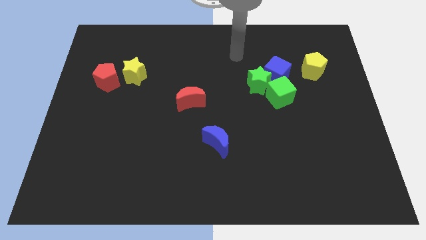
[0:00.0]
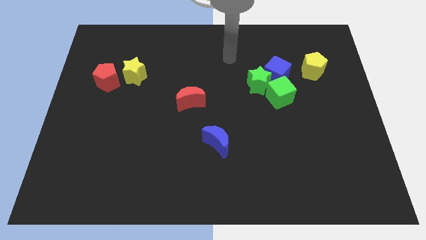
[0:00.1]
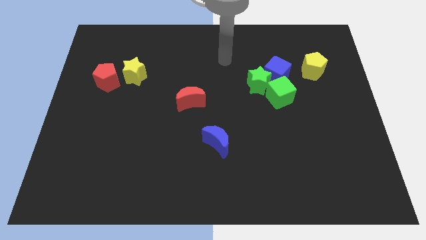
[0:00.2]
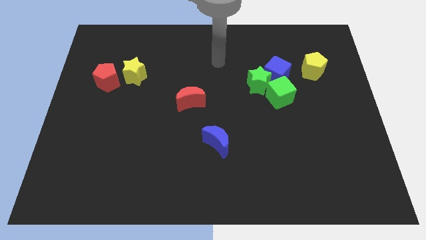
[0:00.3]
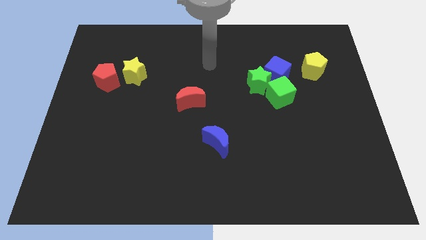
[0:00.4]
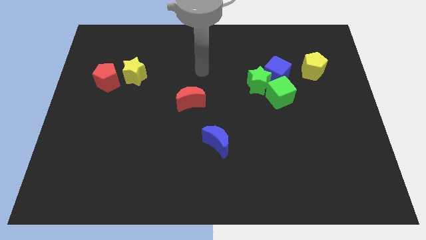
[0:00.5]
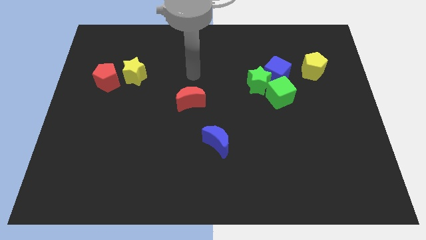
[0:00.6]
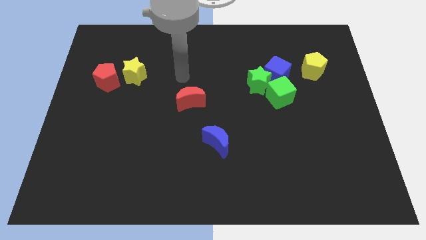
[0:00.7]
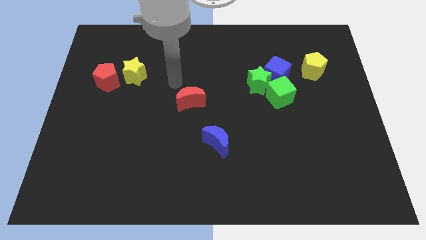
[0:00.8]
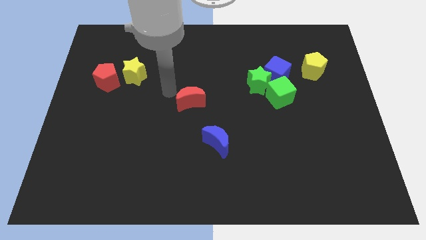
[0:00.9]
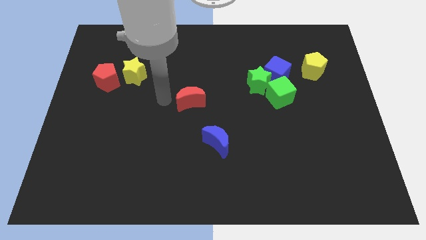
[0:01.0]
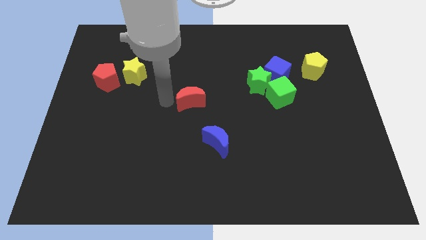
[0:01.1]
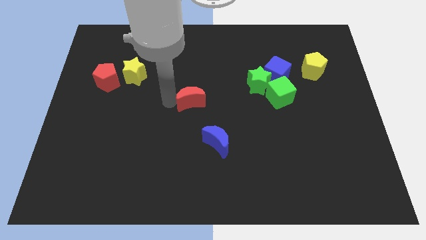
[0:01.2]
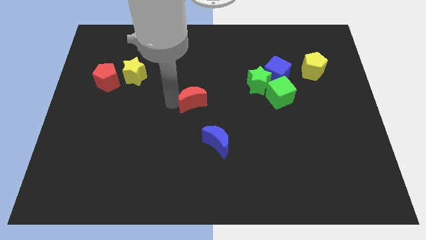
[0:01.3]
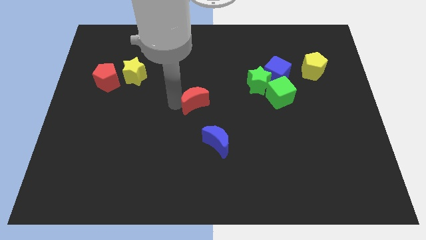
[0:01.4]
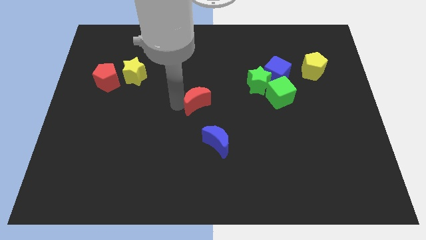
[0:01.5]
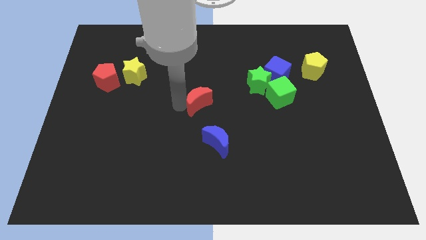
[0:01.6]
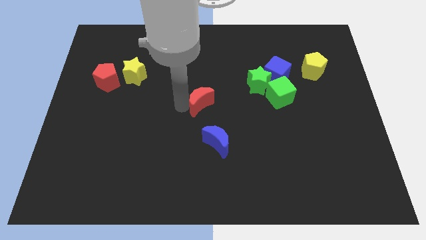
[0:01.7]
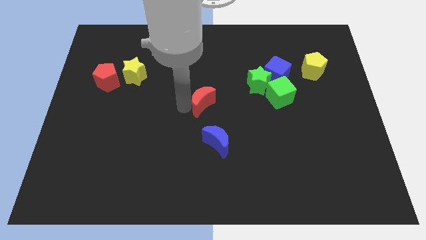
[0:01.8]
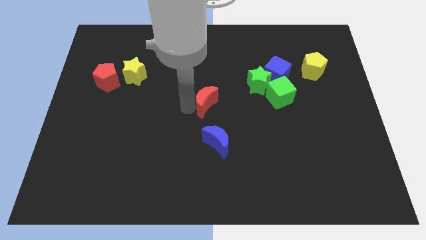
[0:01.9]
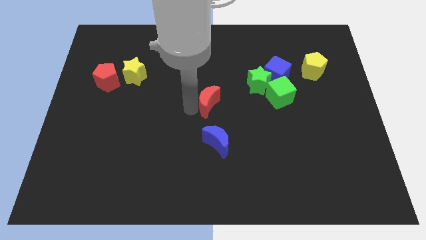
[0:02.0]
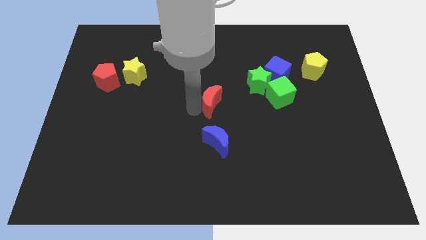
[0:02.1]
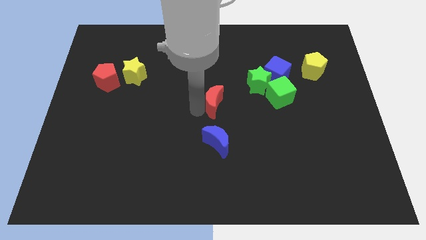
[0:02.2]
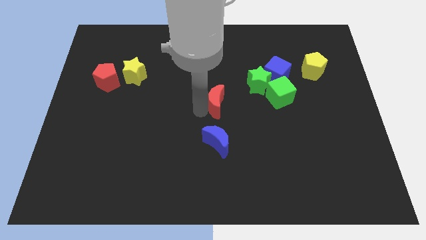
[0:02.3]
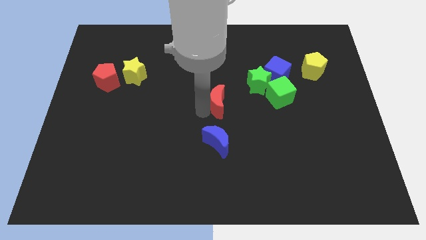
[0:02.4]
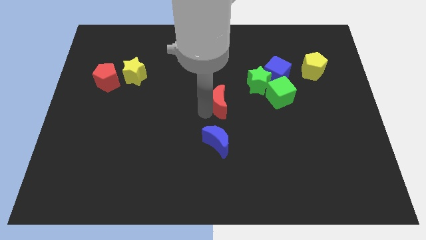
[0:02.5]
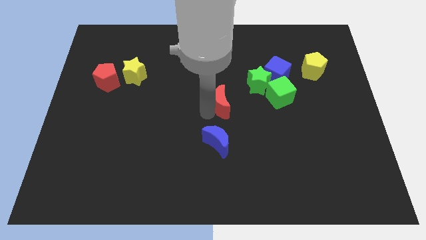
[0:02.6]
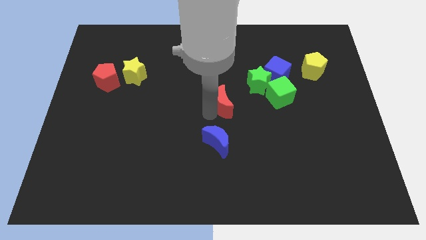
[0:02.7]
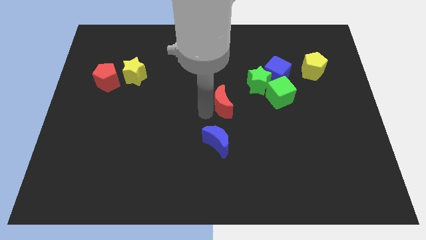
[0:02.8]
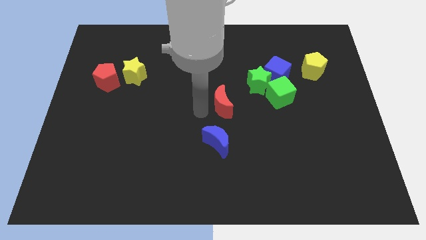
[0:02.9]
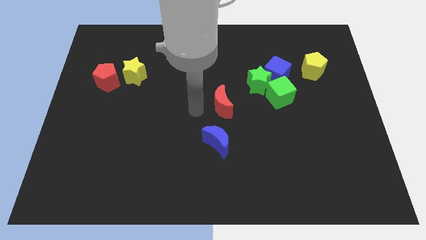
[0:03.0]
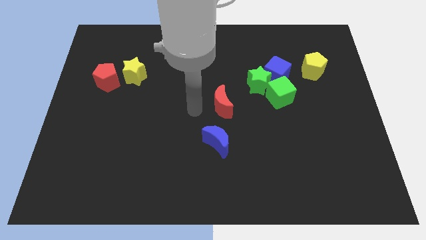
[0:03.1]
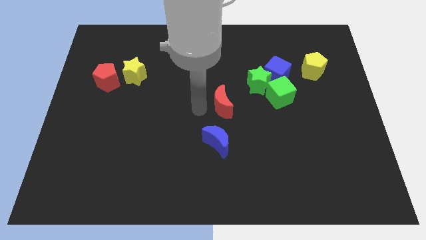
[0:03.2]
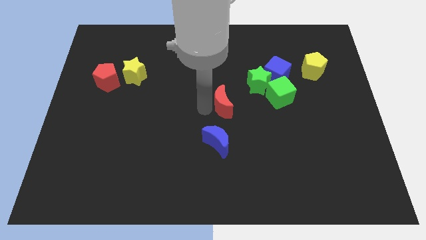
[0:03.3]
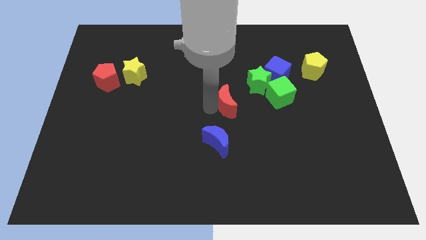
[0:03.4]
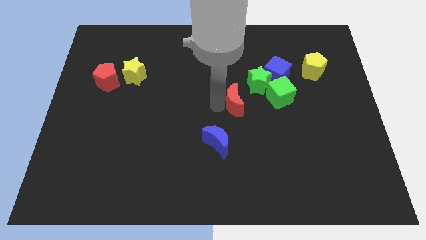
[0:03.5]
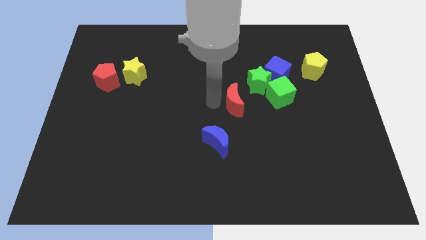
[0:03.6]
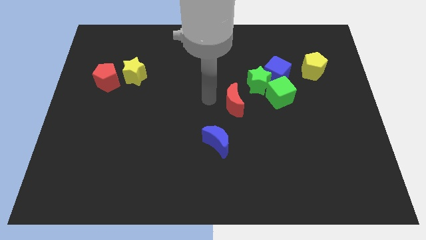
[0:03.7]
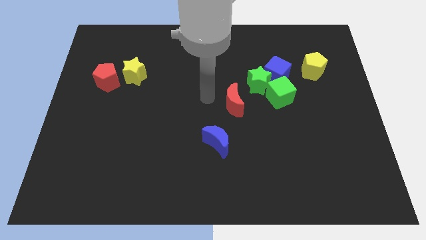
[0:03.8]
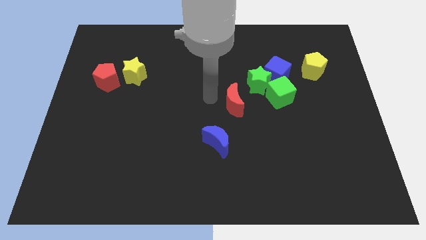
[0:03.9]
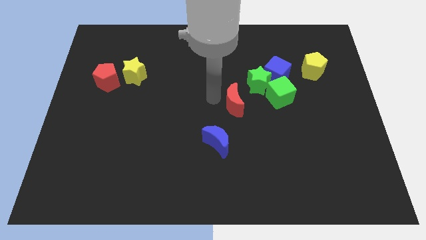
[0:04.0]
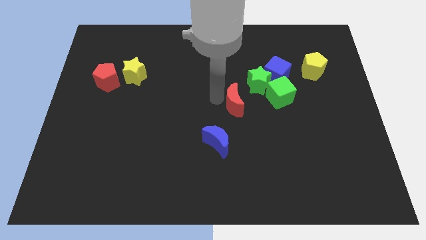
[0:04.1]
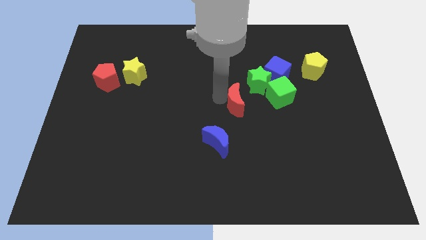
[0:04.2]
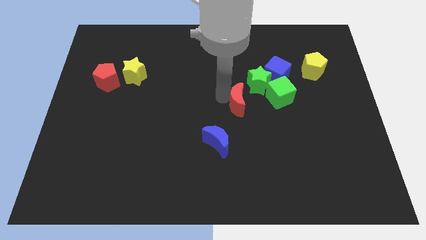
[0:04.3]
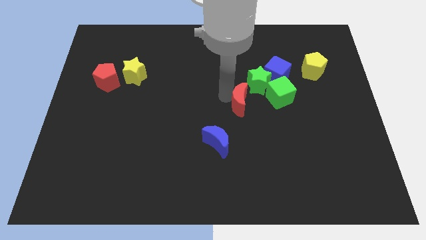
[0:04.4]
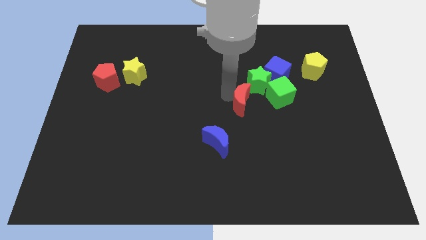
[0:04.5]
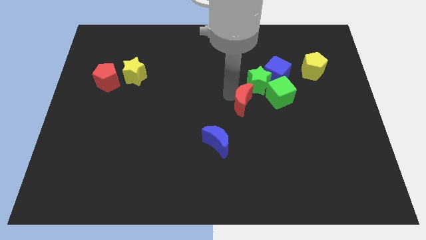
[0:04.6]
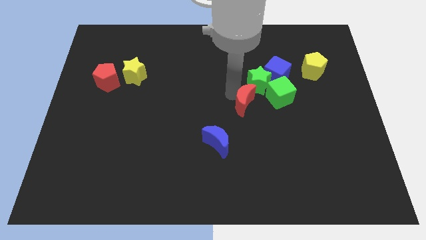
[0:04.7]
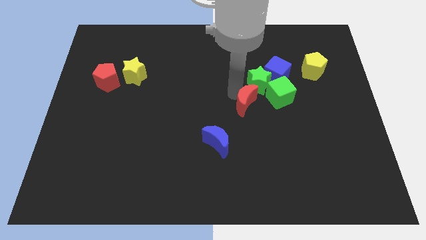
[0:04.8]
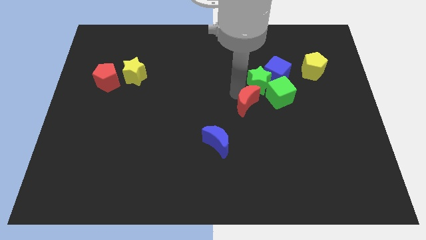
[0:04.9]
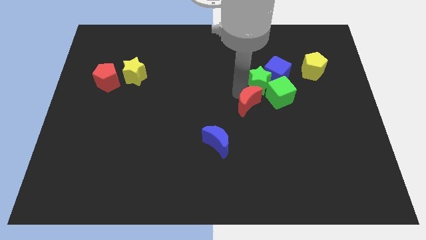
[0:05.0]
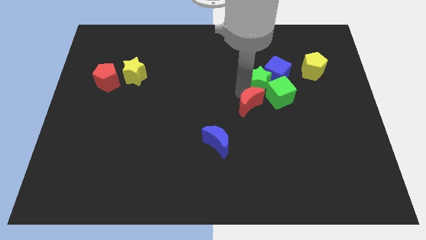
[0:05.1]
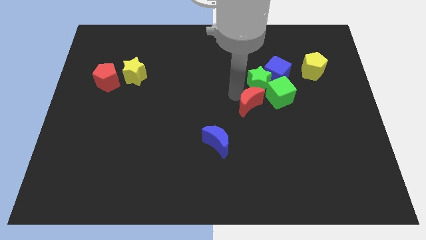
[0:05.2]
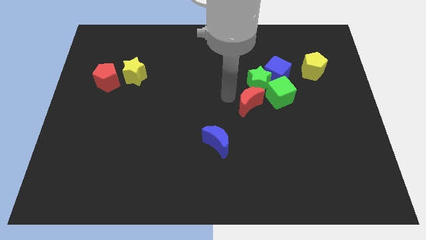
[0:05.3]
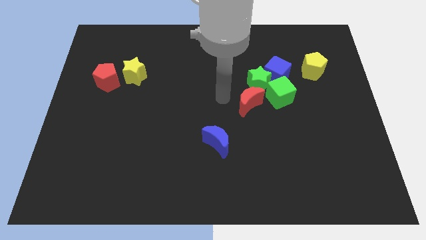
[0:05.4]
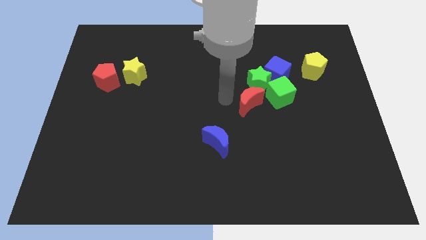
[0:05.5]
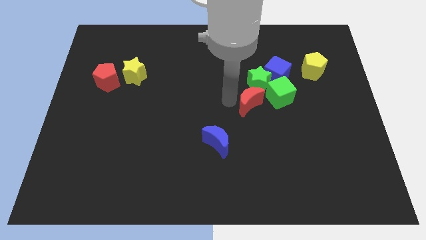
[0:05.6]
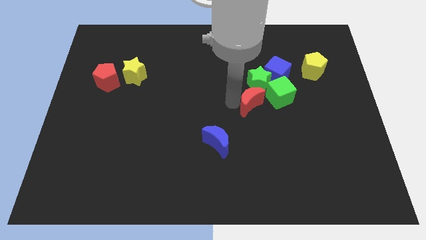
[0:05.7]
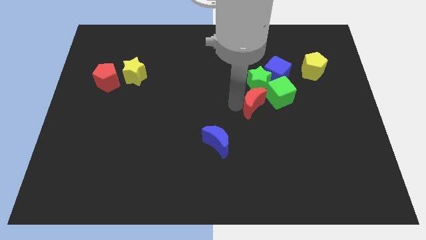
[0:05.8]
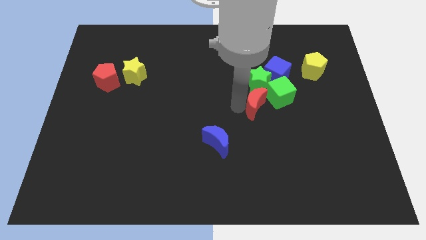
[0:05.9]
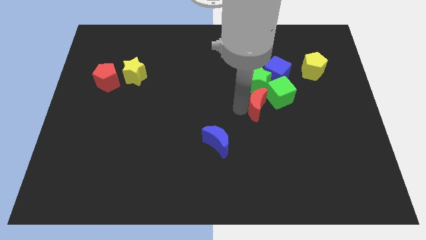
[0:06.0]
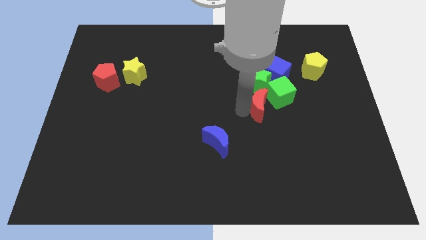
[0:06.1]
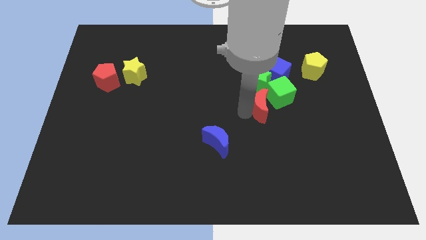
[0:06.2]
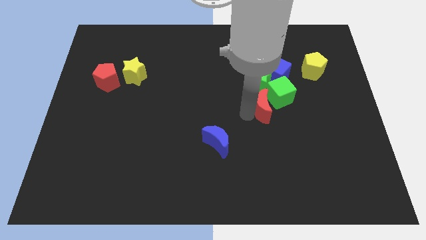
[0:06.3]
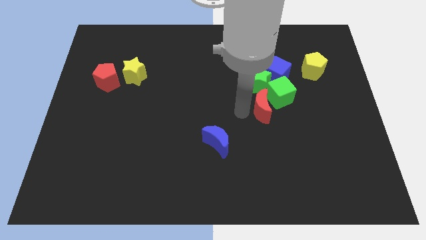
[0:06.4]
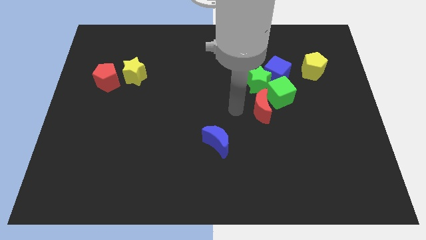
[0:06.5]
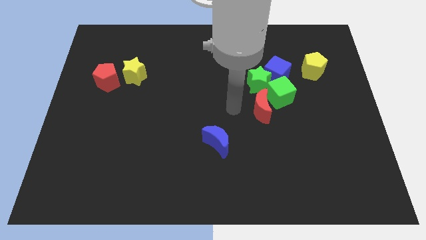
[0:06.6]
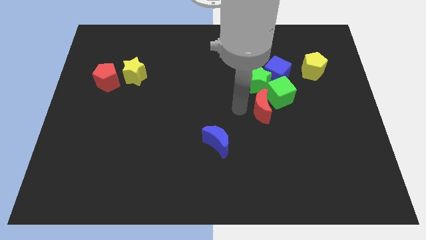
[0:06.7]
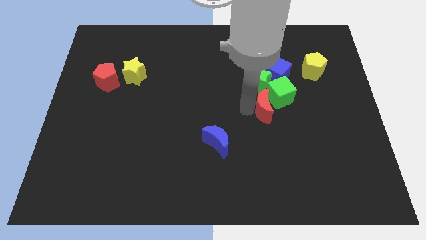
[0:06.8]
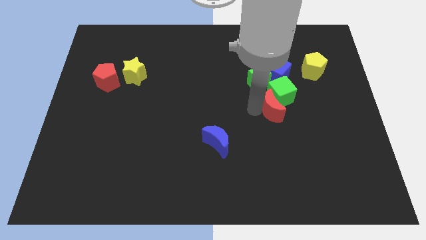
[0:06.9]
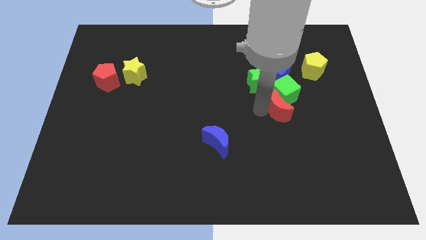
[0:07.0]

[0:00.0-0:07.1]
move the red moon right

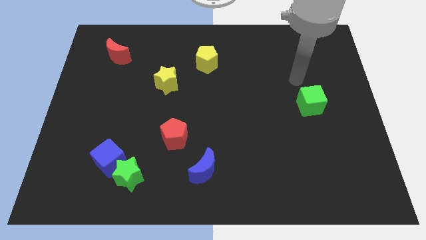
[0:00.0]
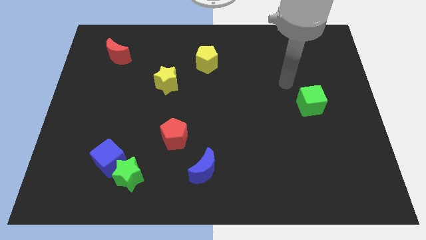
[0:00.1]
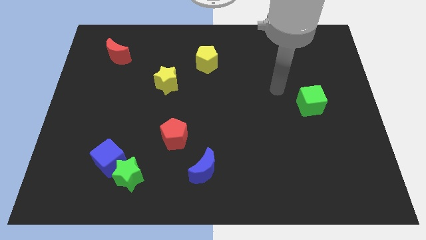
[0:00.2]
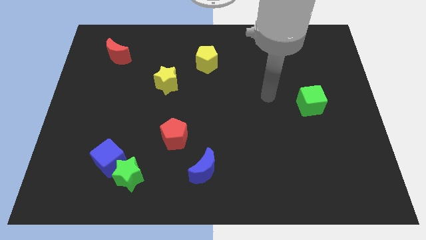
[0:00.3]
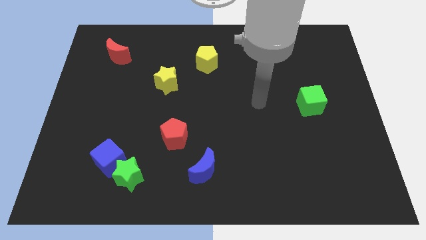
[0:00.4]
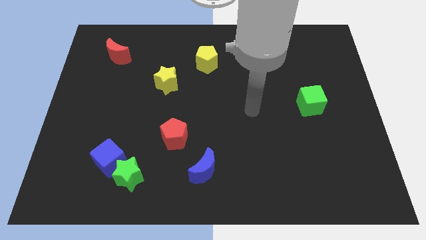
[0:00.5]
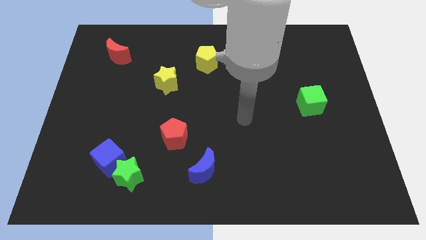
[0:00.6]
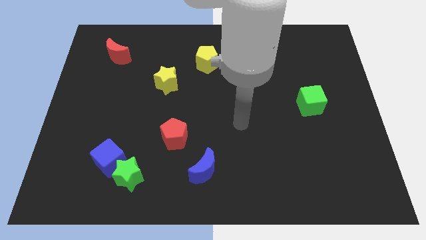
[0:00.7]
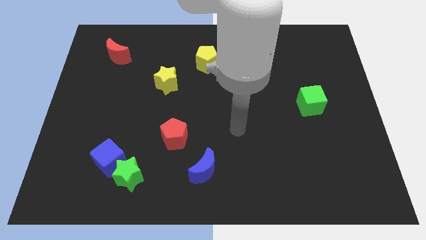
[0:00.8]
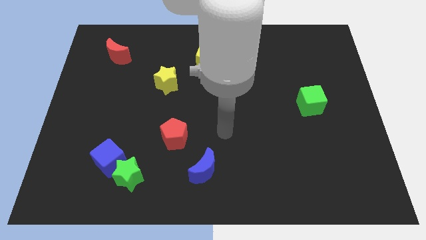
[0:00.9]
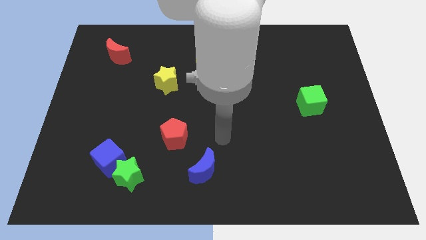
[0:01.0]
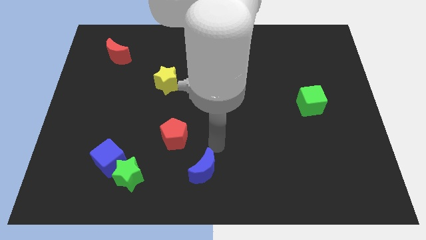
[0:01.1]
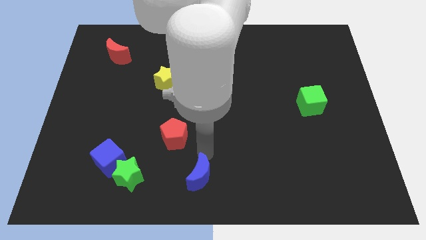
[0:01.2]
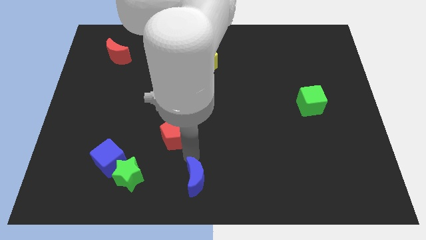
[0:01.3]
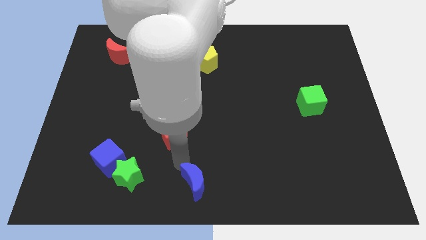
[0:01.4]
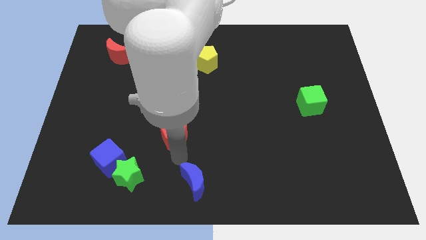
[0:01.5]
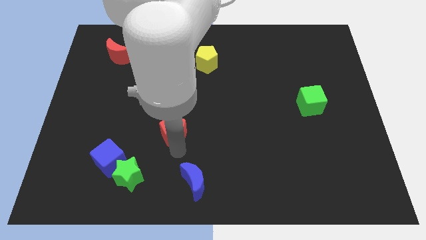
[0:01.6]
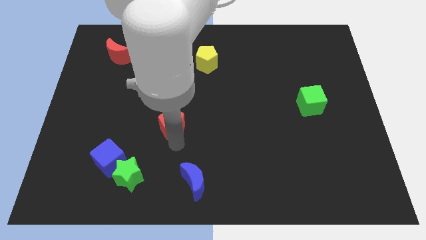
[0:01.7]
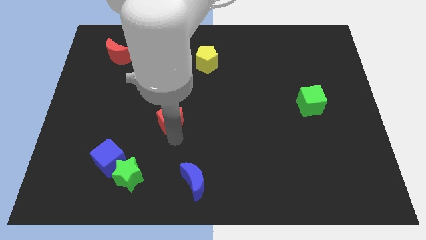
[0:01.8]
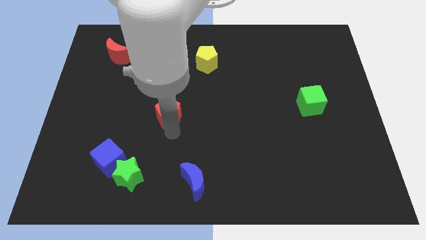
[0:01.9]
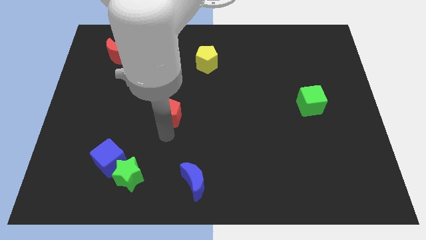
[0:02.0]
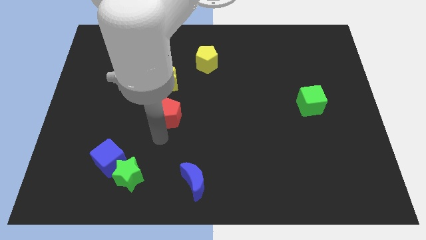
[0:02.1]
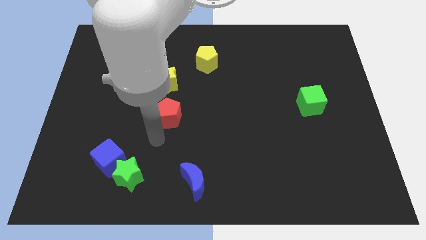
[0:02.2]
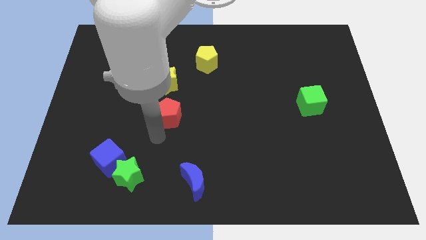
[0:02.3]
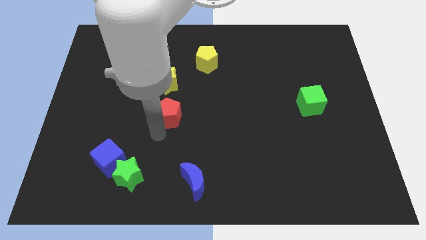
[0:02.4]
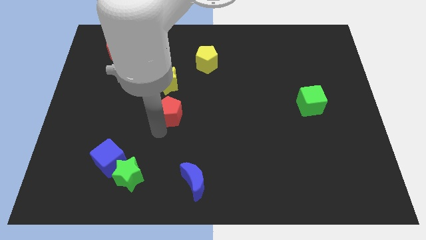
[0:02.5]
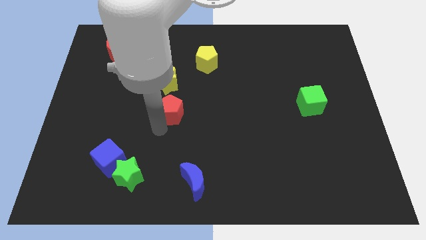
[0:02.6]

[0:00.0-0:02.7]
slide the red pentagon upwards somewhat
